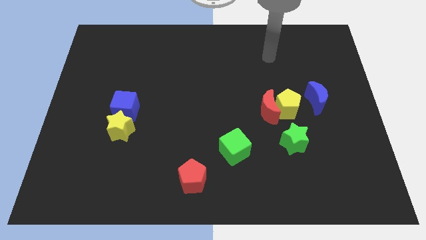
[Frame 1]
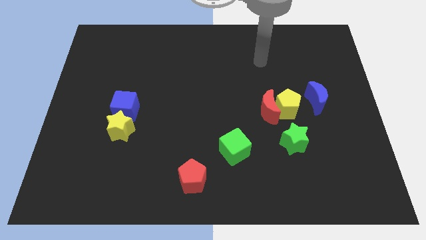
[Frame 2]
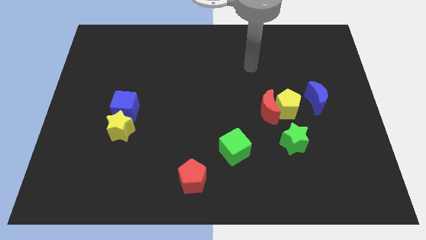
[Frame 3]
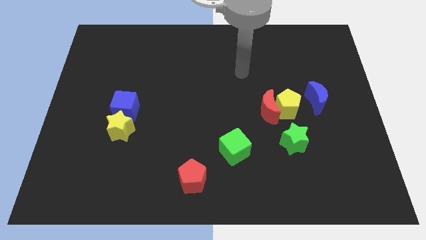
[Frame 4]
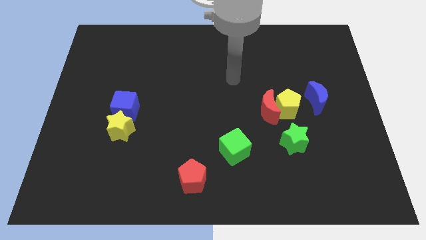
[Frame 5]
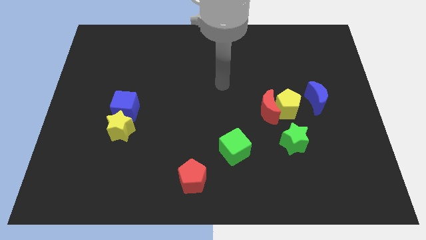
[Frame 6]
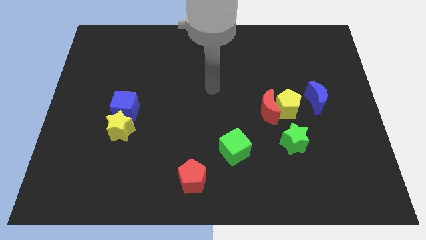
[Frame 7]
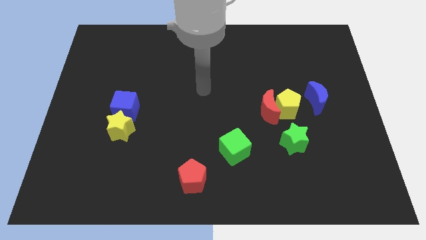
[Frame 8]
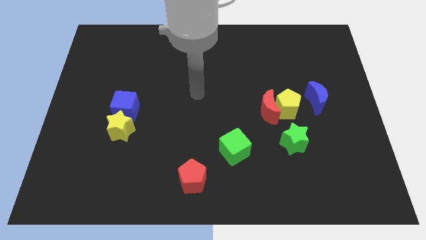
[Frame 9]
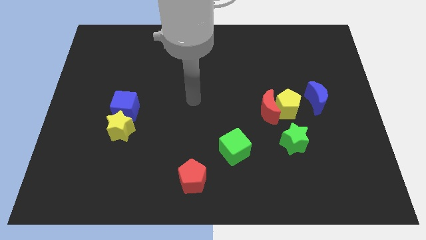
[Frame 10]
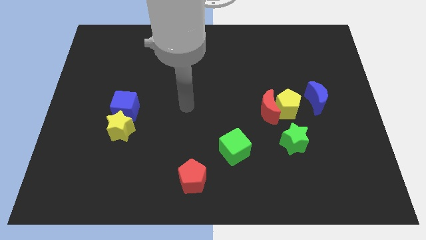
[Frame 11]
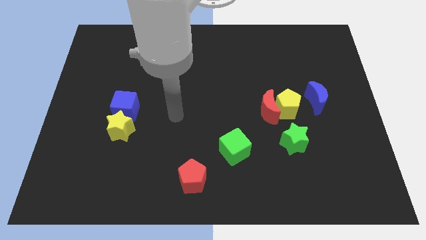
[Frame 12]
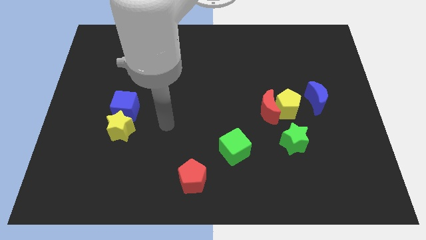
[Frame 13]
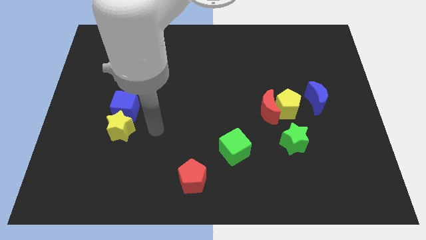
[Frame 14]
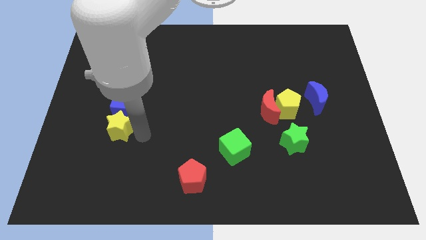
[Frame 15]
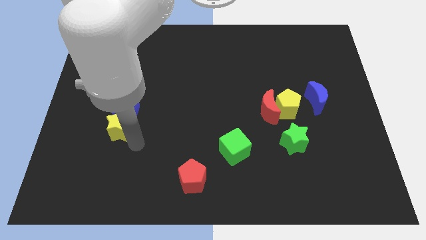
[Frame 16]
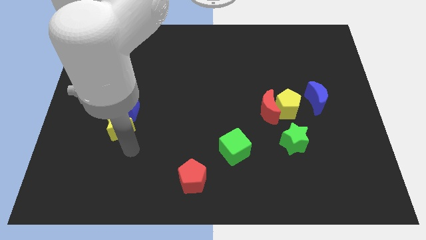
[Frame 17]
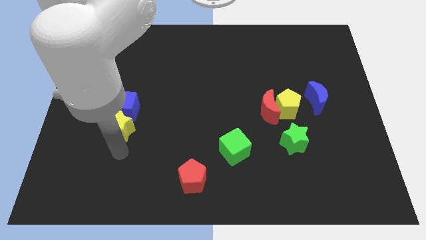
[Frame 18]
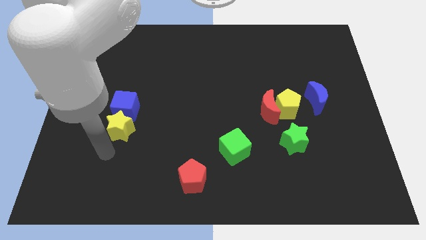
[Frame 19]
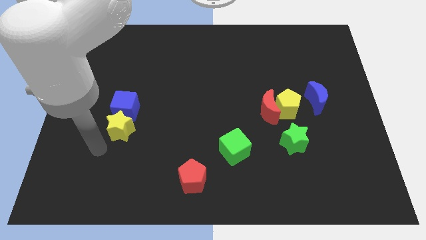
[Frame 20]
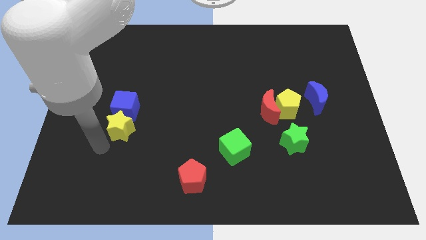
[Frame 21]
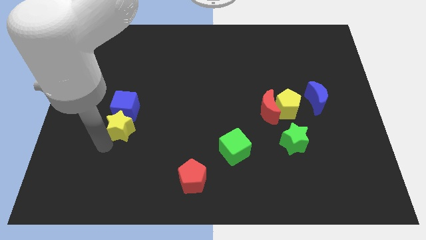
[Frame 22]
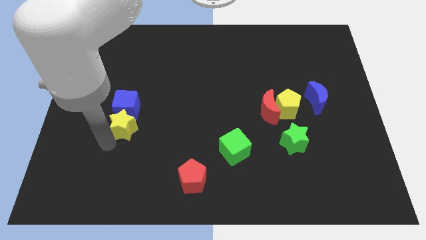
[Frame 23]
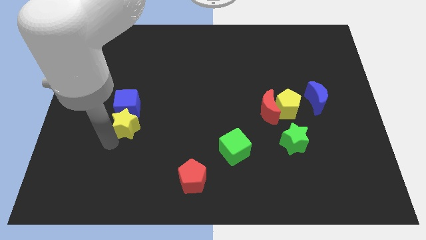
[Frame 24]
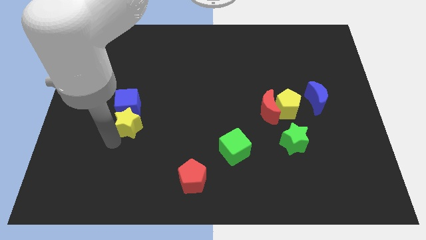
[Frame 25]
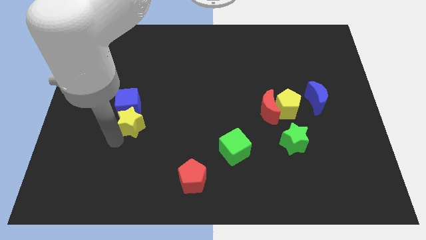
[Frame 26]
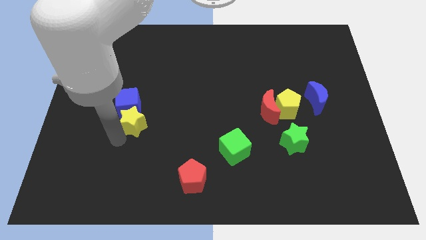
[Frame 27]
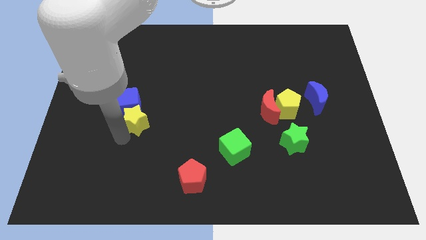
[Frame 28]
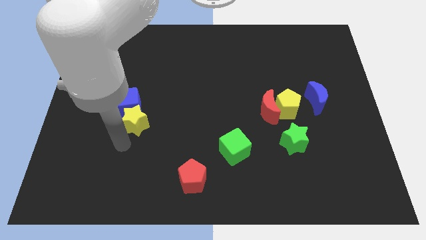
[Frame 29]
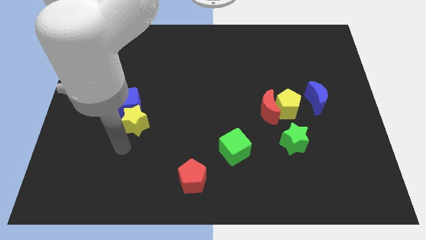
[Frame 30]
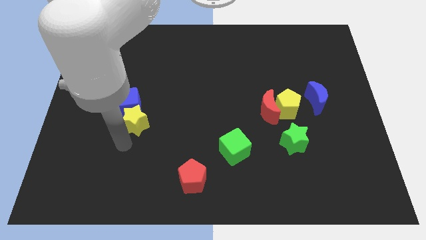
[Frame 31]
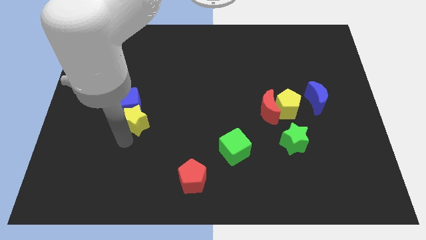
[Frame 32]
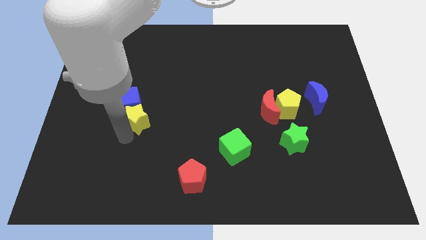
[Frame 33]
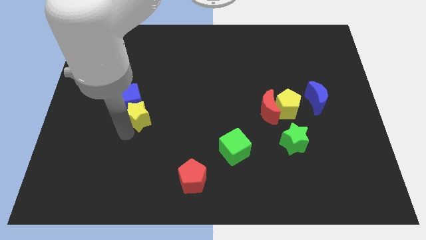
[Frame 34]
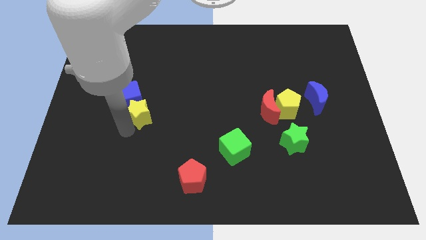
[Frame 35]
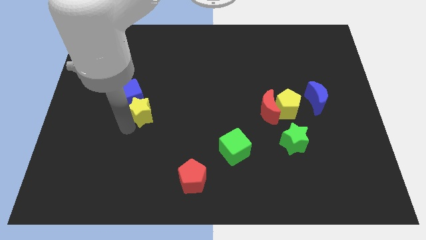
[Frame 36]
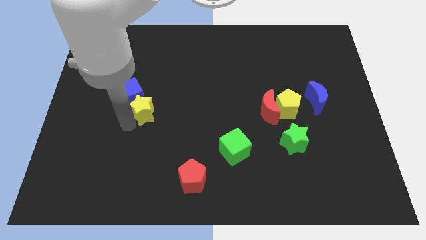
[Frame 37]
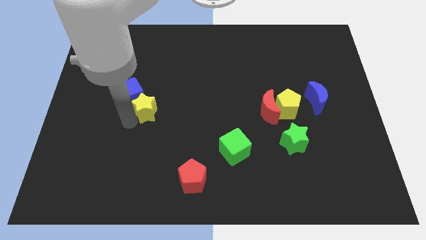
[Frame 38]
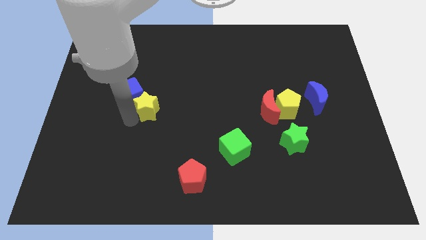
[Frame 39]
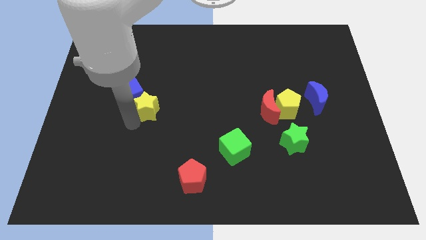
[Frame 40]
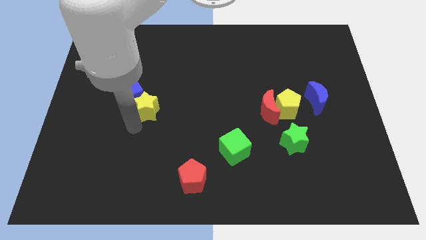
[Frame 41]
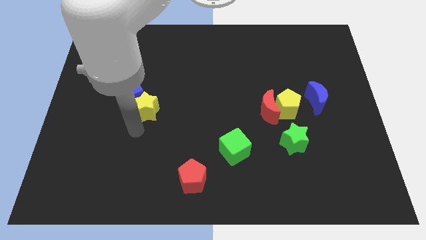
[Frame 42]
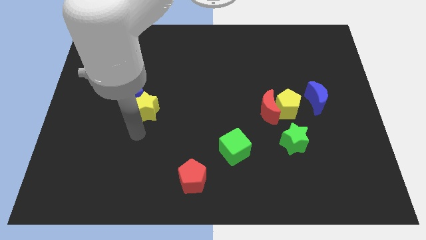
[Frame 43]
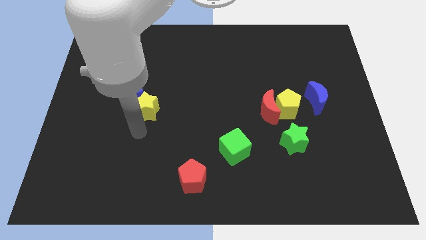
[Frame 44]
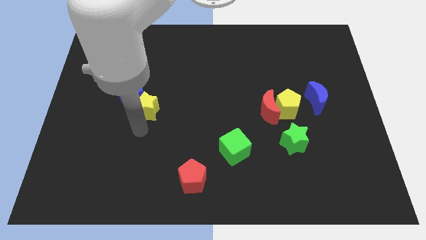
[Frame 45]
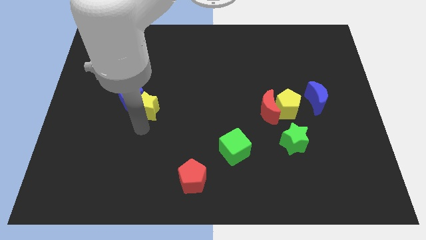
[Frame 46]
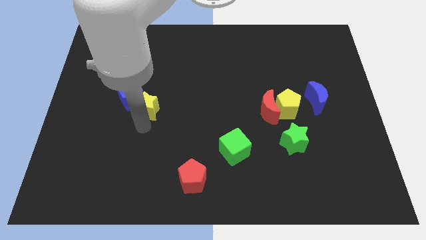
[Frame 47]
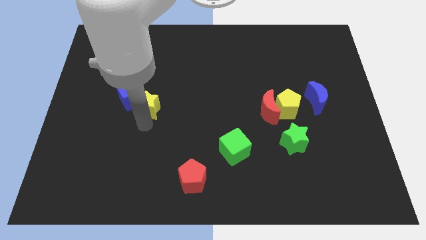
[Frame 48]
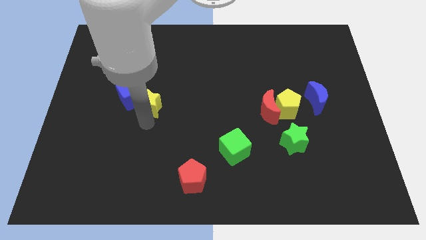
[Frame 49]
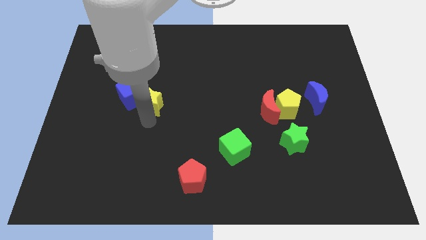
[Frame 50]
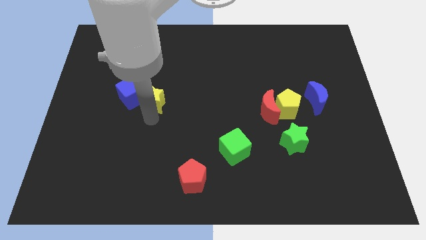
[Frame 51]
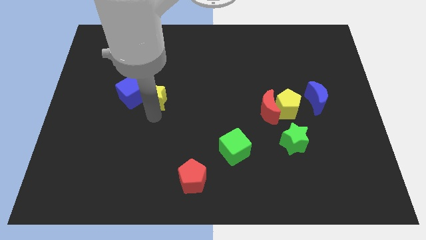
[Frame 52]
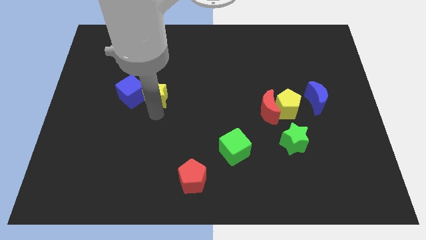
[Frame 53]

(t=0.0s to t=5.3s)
move the yellow star upwards a little

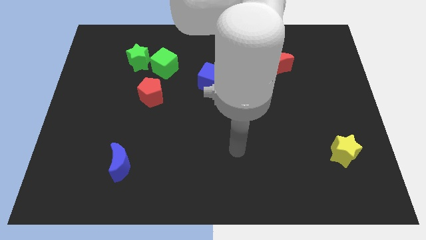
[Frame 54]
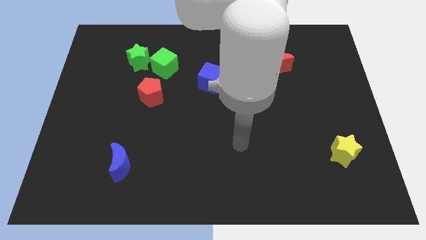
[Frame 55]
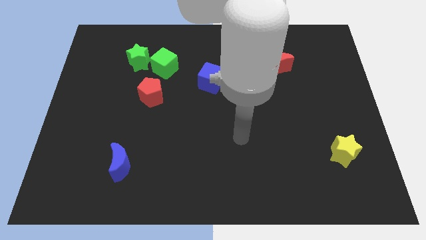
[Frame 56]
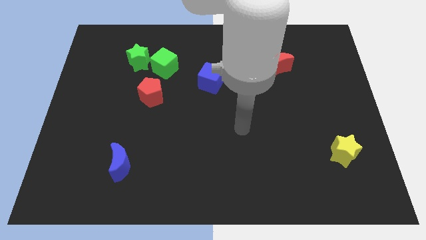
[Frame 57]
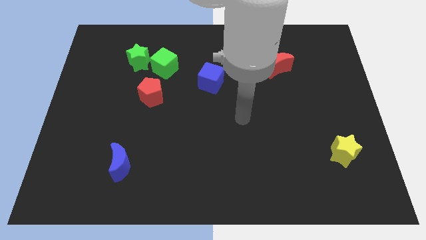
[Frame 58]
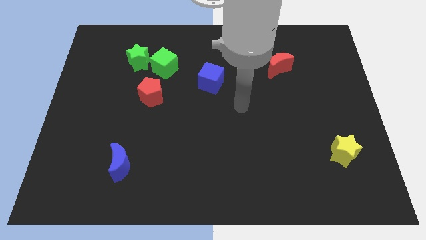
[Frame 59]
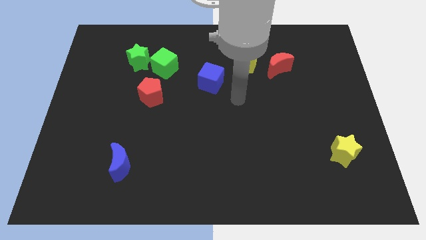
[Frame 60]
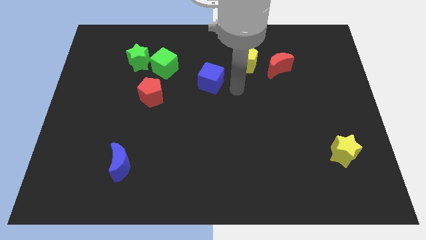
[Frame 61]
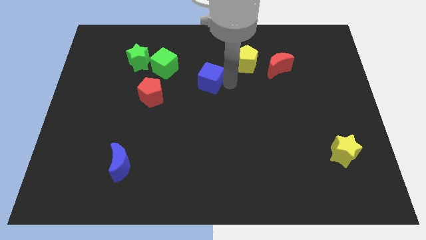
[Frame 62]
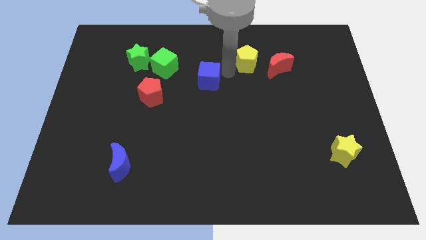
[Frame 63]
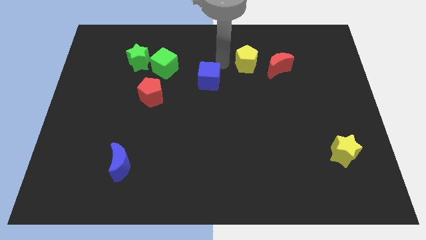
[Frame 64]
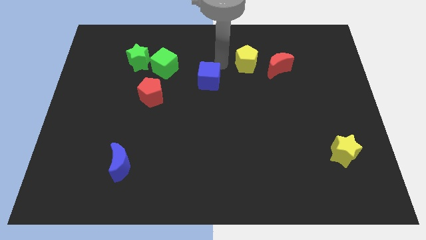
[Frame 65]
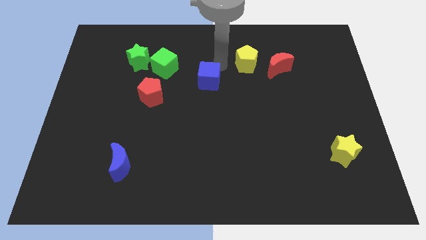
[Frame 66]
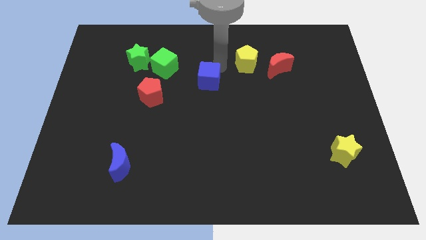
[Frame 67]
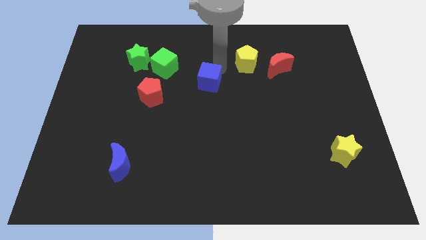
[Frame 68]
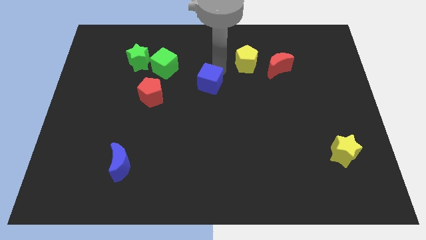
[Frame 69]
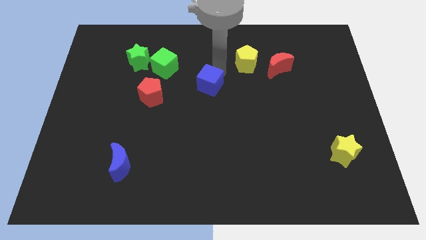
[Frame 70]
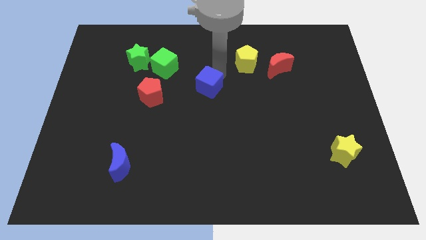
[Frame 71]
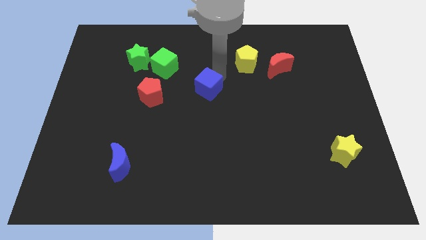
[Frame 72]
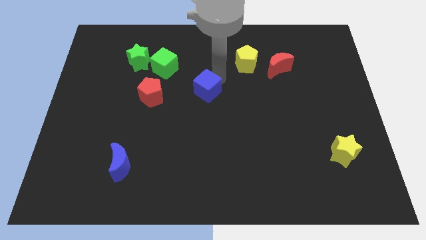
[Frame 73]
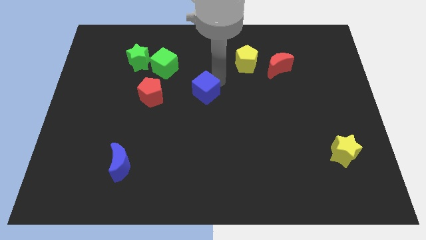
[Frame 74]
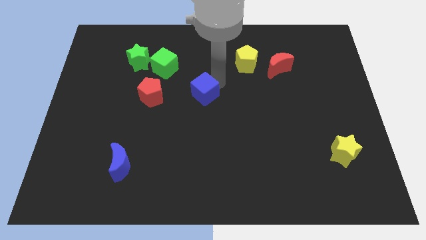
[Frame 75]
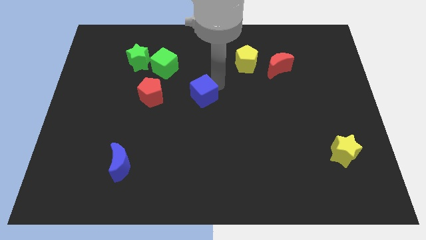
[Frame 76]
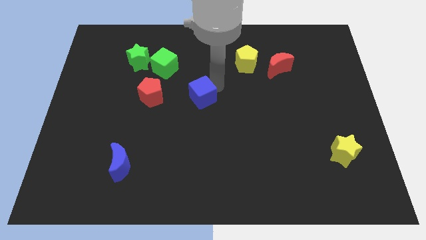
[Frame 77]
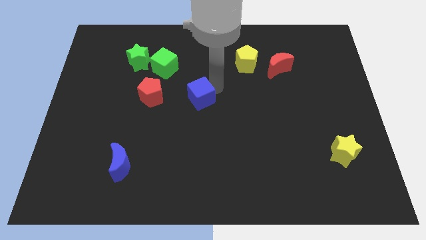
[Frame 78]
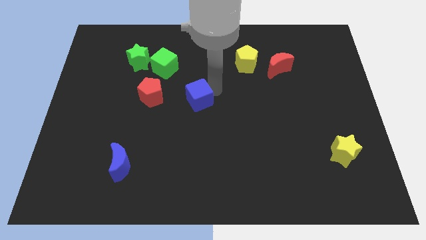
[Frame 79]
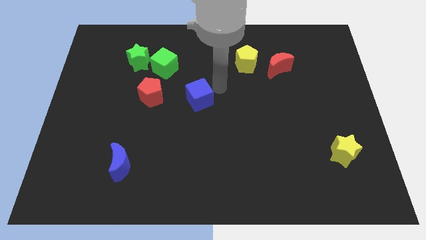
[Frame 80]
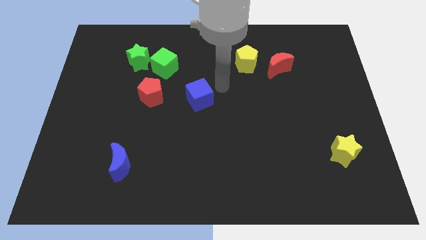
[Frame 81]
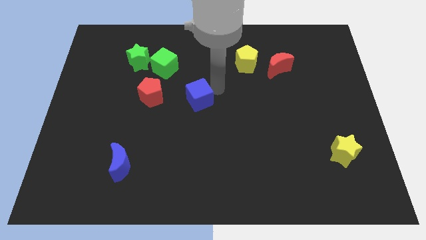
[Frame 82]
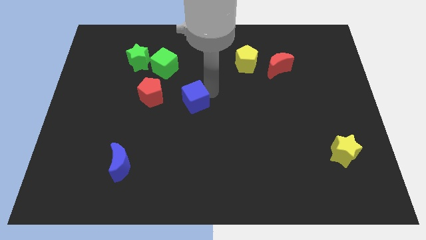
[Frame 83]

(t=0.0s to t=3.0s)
push the blue cube downwards and then left slightly
